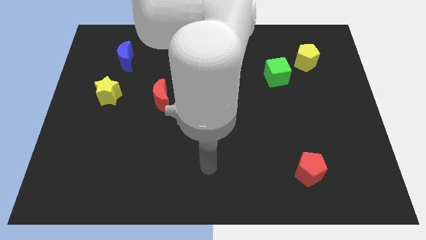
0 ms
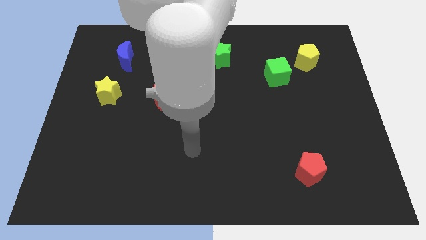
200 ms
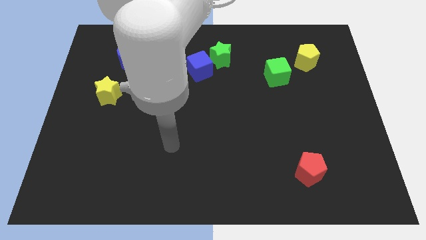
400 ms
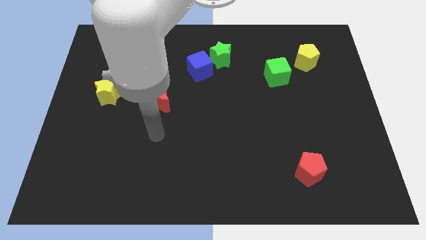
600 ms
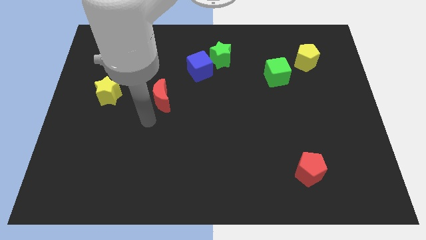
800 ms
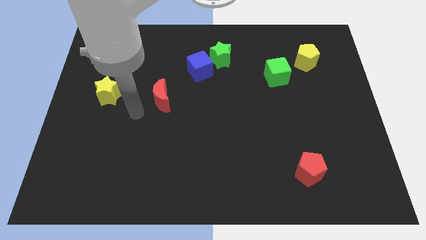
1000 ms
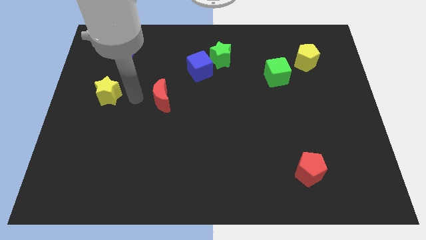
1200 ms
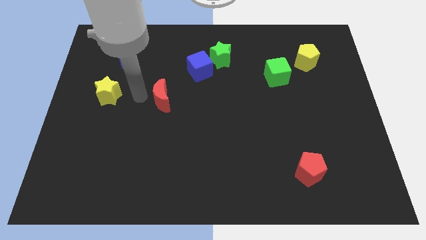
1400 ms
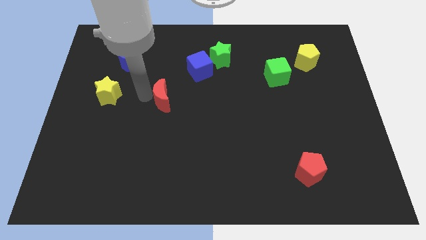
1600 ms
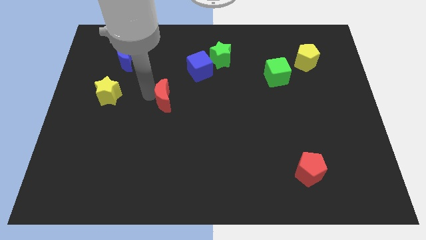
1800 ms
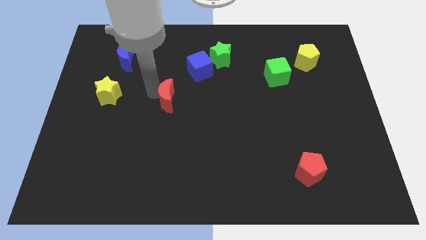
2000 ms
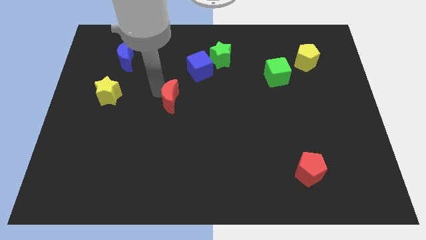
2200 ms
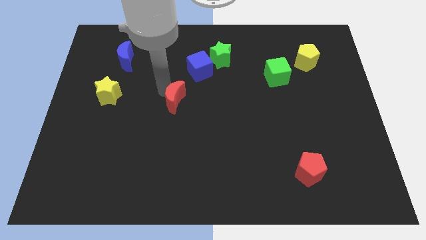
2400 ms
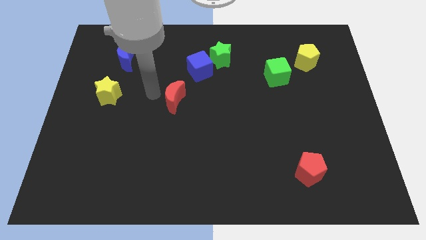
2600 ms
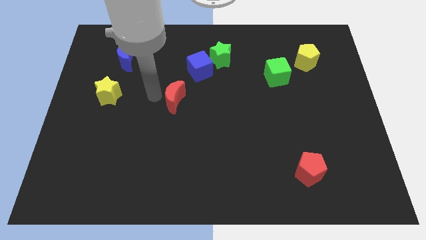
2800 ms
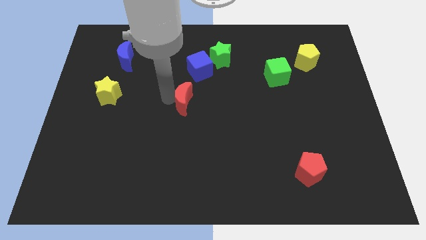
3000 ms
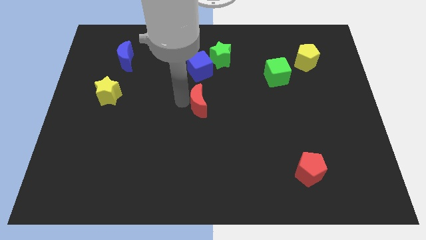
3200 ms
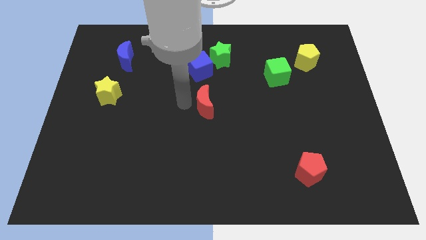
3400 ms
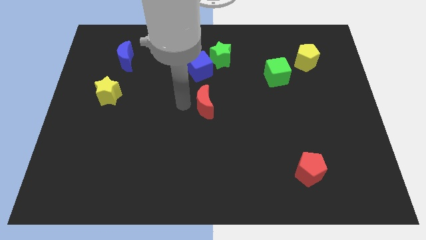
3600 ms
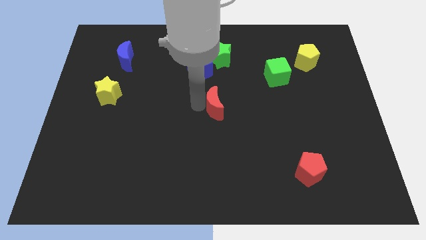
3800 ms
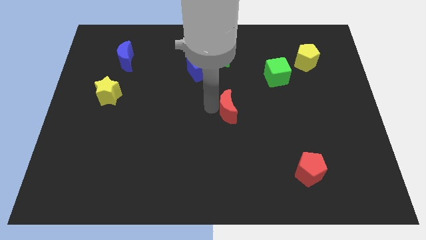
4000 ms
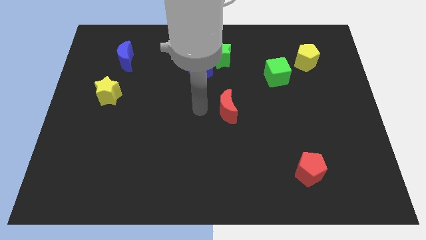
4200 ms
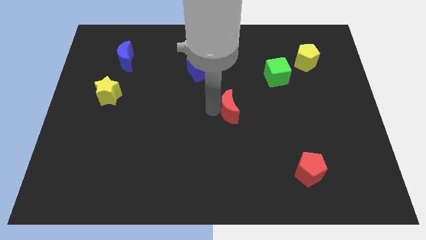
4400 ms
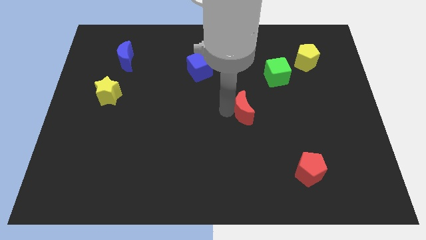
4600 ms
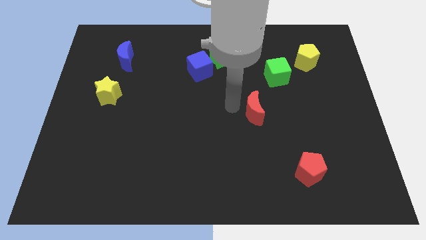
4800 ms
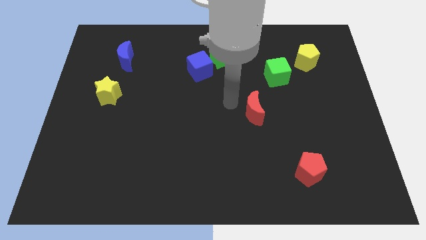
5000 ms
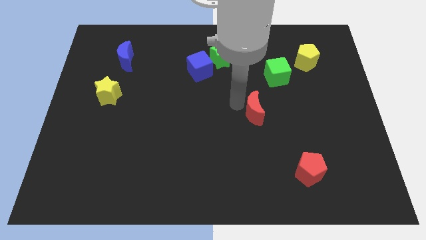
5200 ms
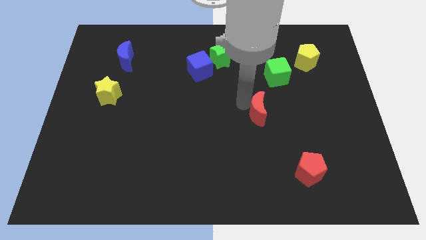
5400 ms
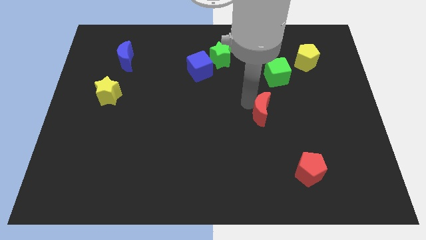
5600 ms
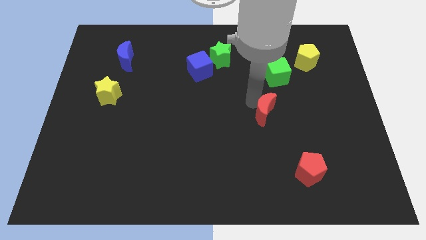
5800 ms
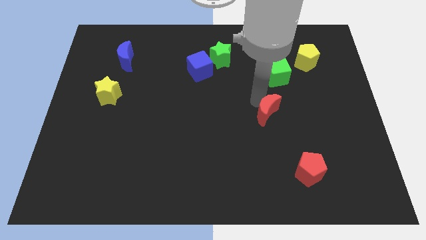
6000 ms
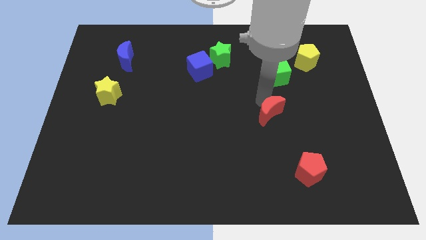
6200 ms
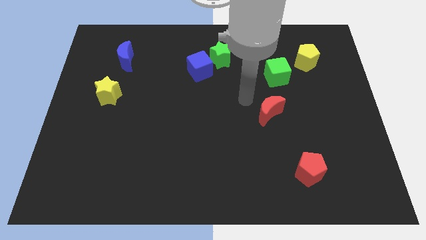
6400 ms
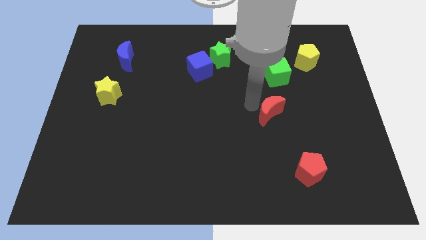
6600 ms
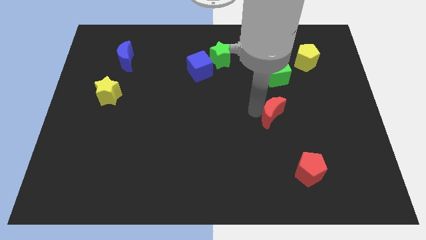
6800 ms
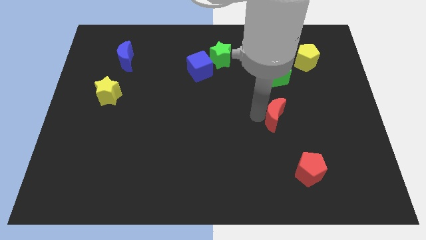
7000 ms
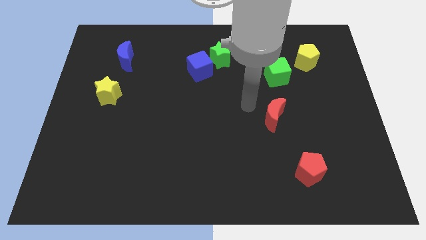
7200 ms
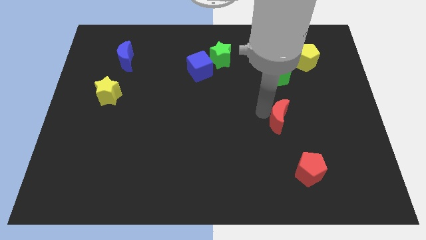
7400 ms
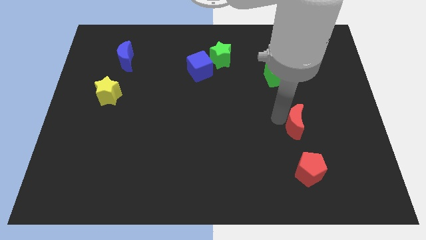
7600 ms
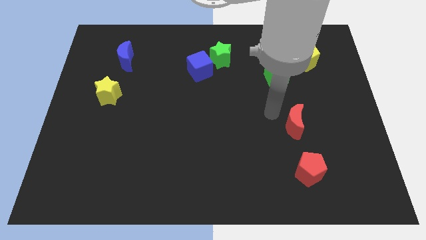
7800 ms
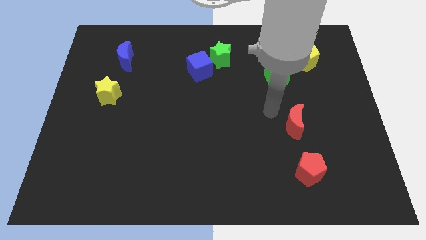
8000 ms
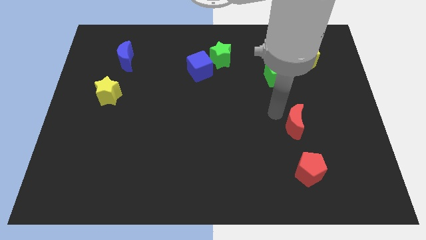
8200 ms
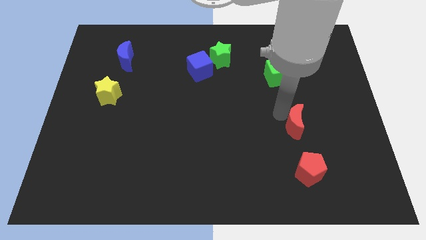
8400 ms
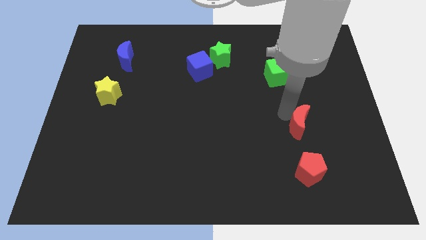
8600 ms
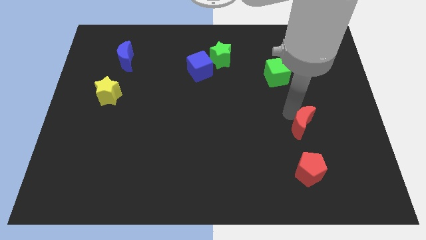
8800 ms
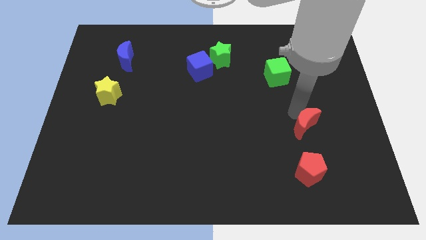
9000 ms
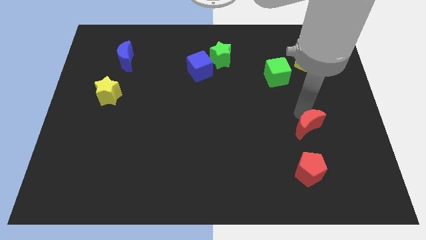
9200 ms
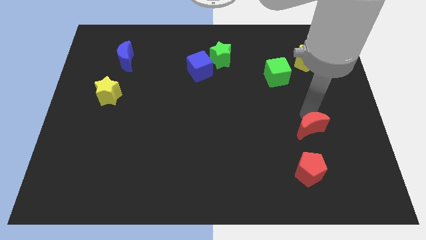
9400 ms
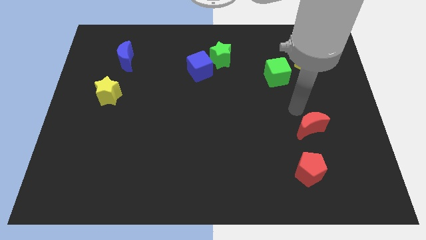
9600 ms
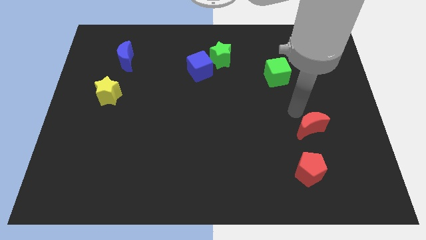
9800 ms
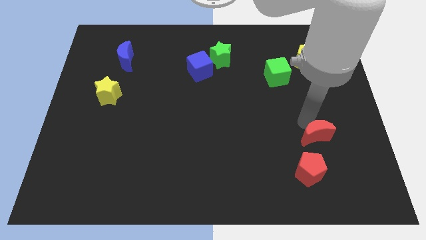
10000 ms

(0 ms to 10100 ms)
put the red moon to the top right of the red pentagon

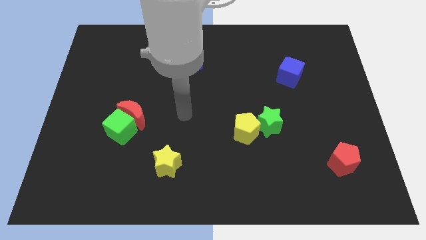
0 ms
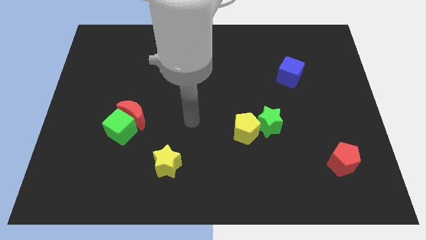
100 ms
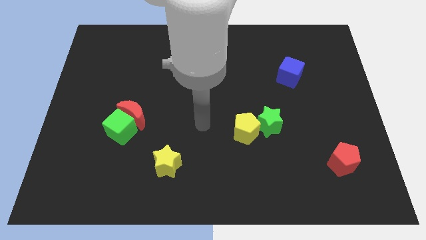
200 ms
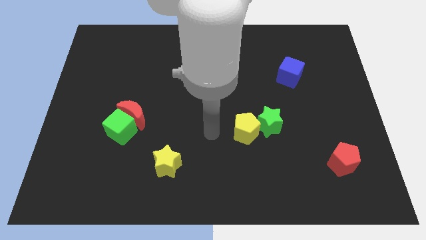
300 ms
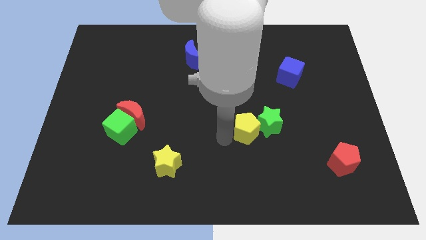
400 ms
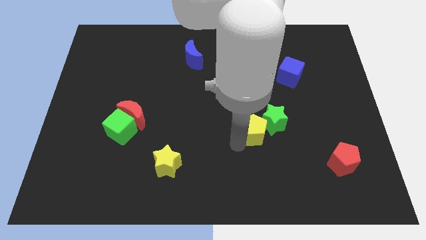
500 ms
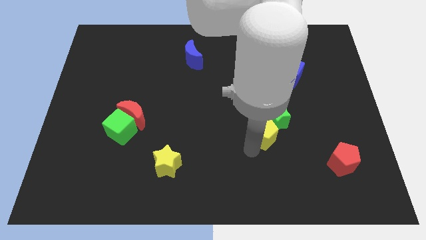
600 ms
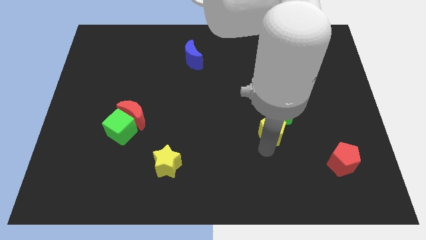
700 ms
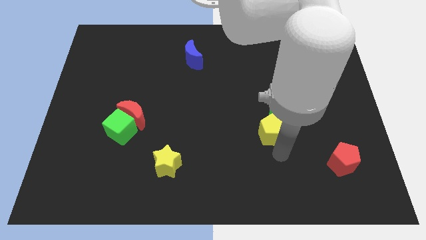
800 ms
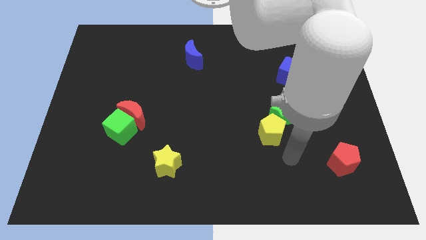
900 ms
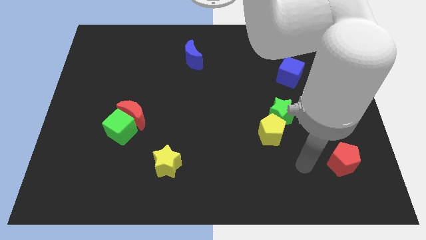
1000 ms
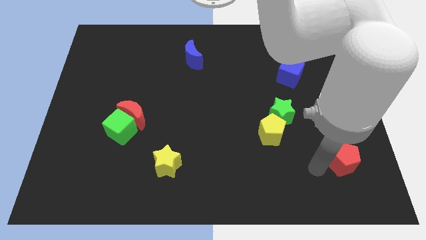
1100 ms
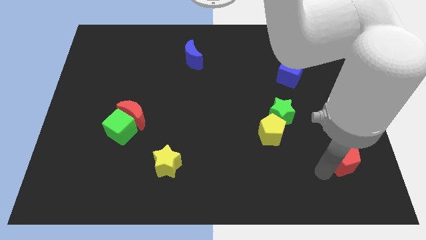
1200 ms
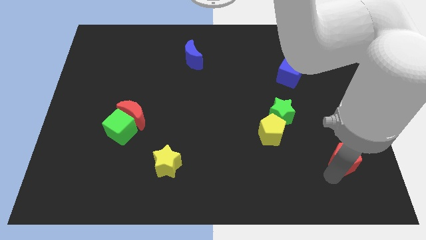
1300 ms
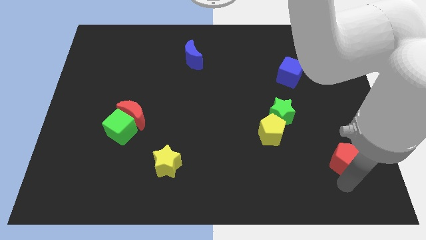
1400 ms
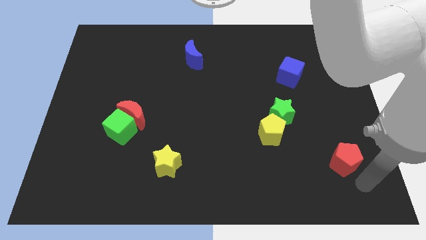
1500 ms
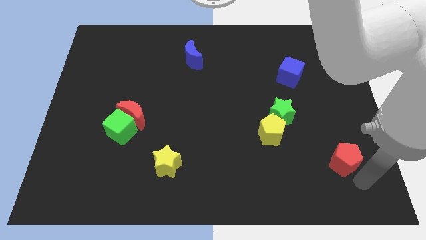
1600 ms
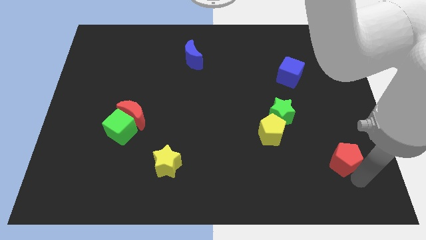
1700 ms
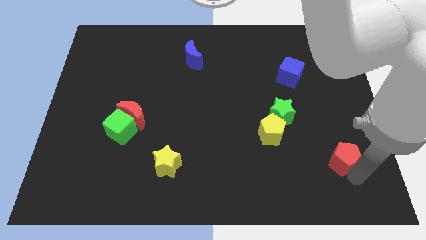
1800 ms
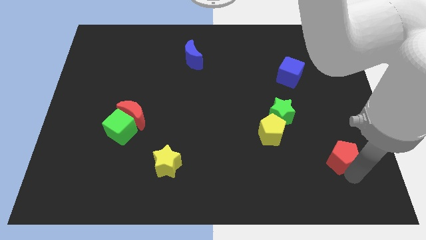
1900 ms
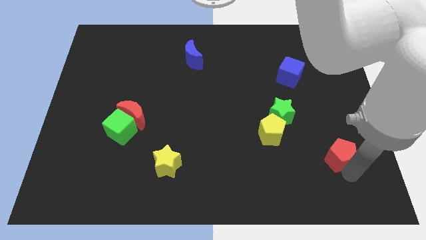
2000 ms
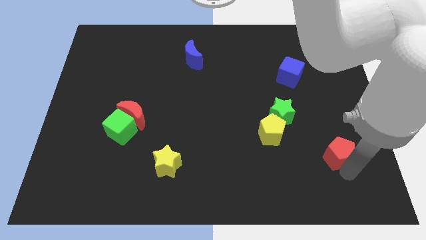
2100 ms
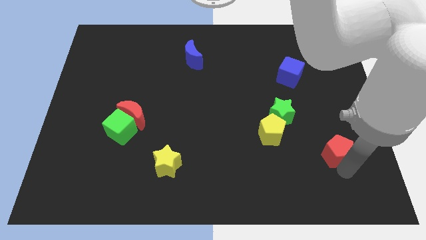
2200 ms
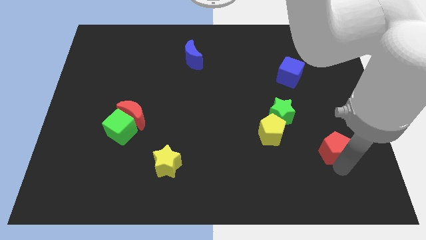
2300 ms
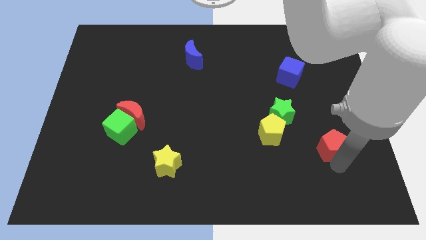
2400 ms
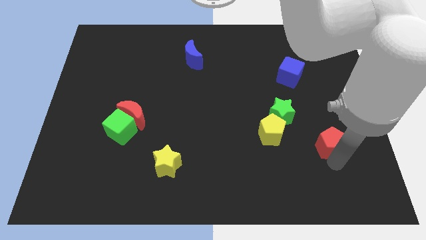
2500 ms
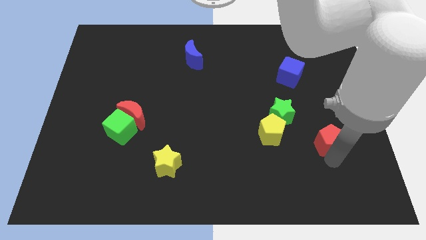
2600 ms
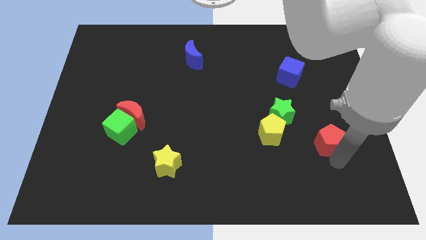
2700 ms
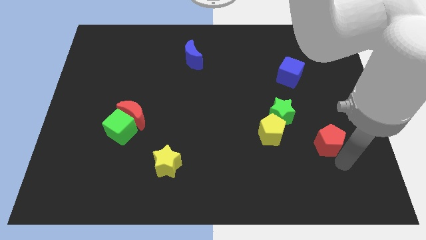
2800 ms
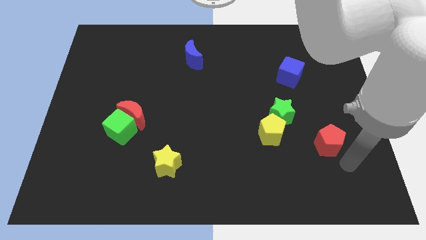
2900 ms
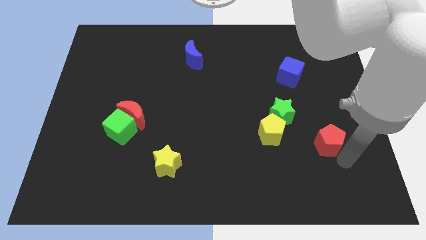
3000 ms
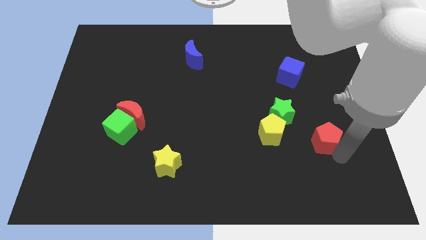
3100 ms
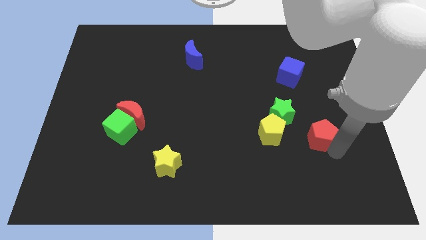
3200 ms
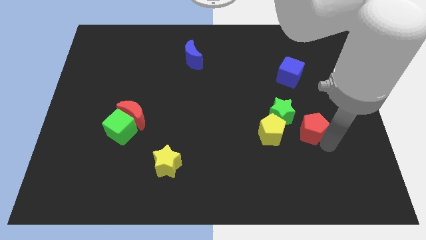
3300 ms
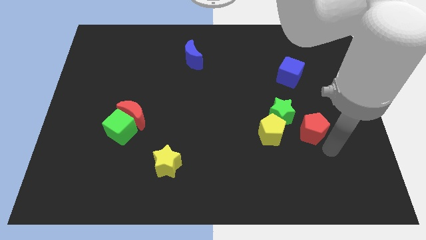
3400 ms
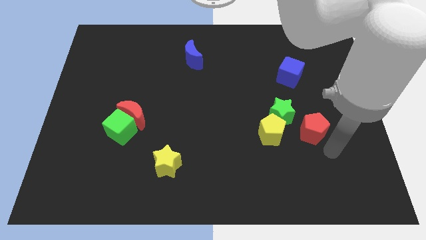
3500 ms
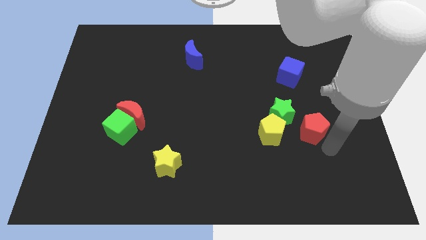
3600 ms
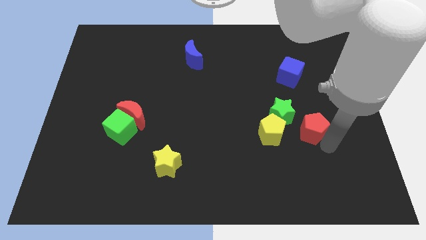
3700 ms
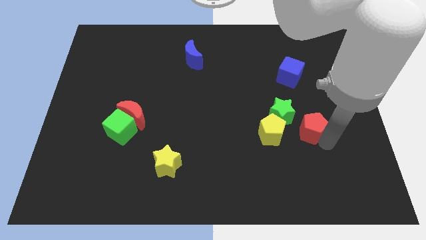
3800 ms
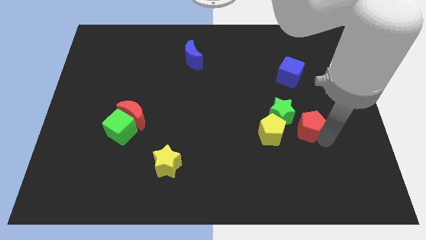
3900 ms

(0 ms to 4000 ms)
push the red pentagon to the top right side of the yellow pentagon
